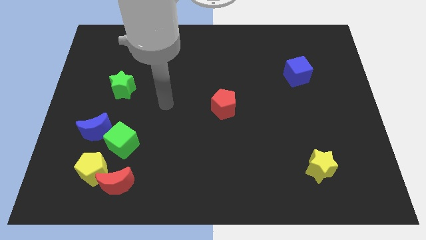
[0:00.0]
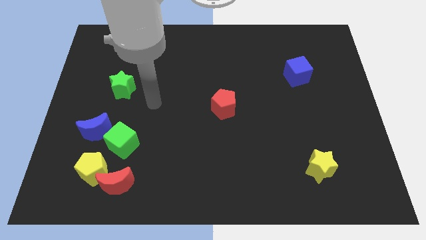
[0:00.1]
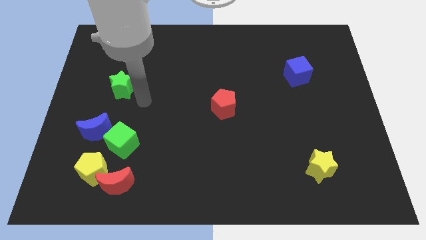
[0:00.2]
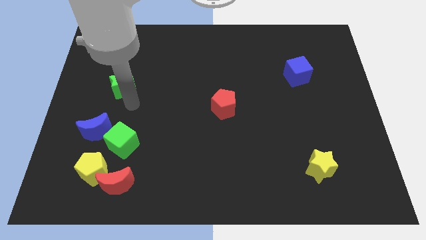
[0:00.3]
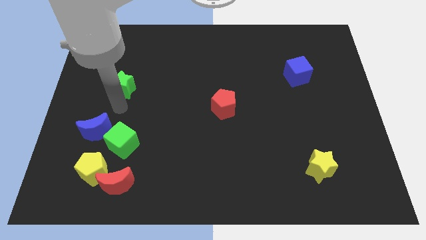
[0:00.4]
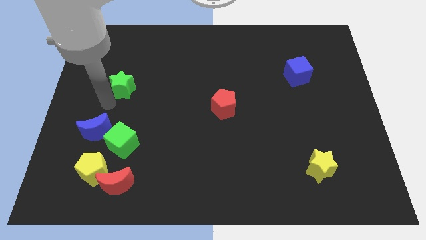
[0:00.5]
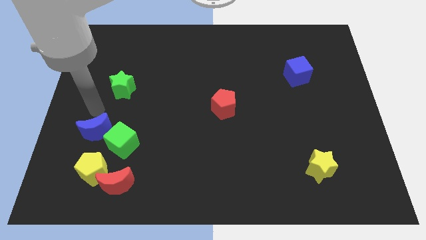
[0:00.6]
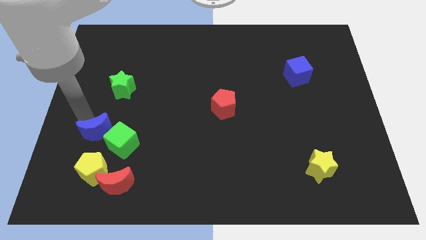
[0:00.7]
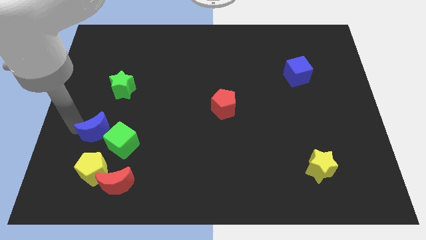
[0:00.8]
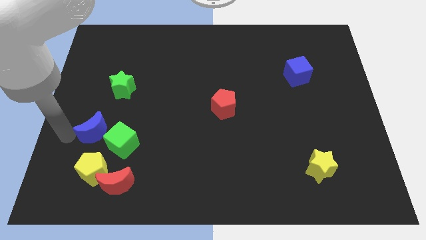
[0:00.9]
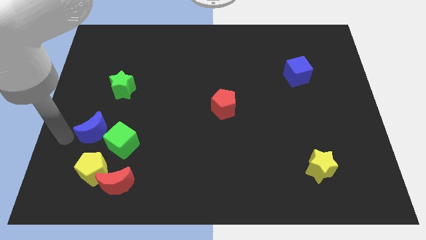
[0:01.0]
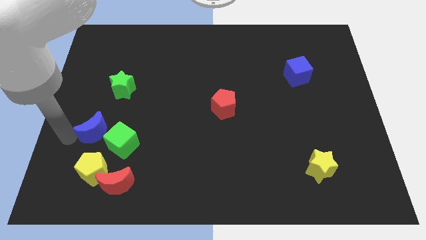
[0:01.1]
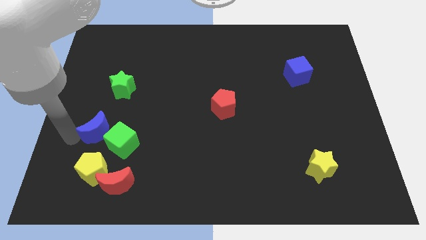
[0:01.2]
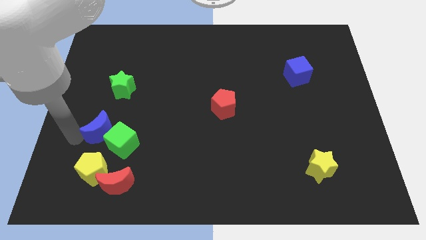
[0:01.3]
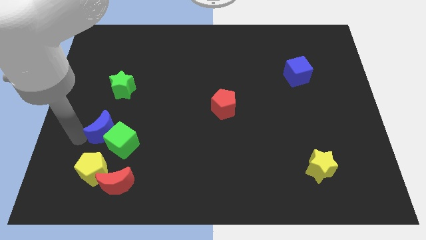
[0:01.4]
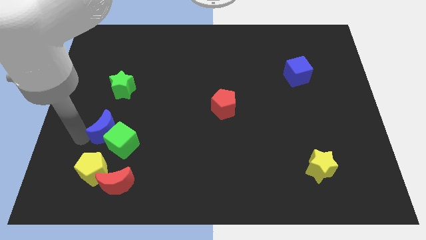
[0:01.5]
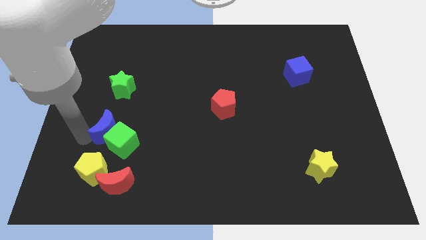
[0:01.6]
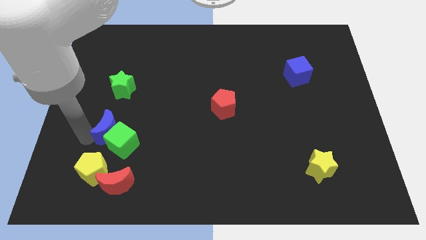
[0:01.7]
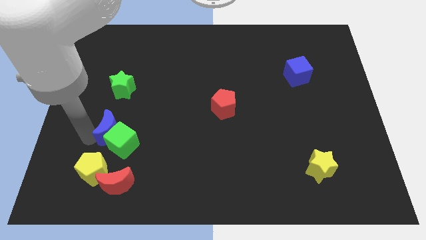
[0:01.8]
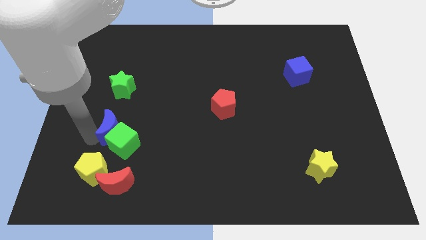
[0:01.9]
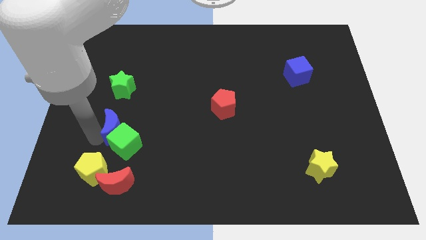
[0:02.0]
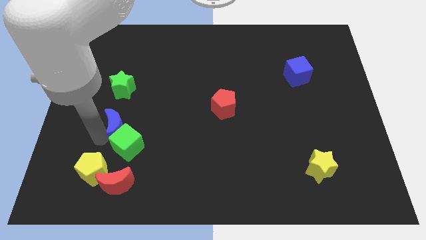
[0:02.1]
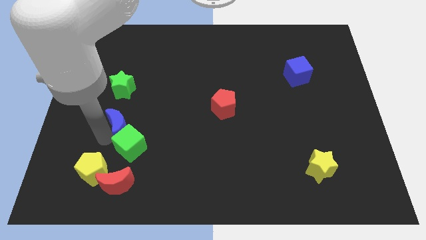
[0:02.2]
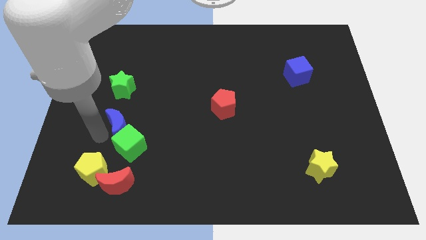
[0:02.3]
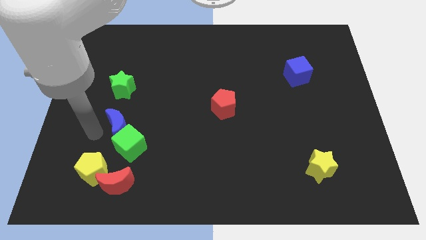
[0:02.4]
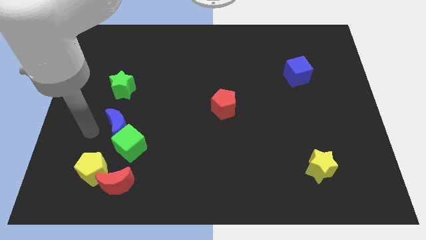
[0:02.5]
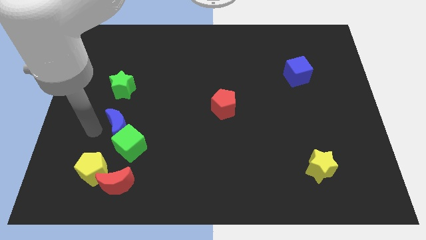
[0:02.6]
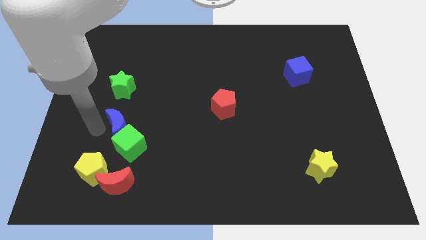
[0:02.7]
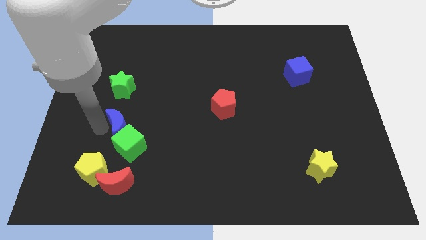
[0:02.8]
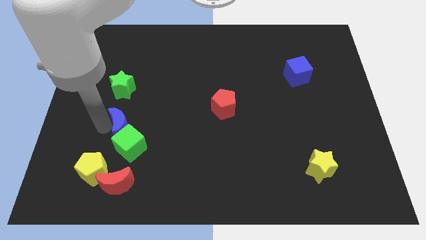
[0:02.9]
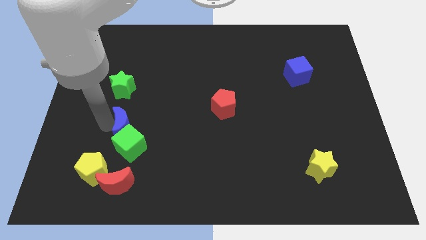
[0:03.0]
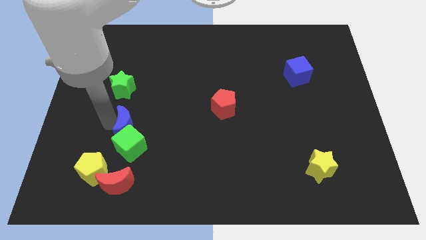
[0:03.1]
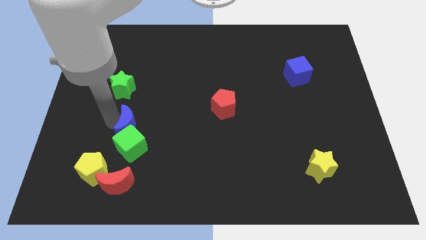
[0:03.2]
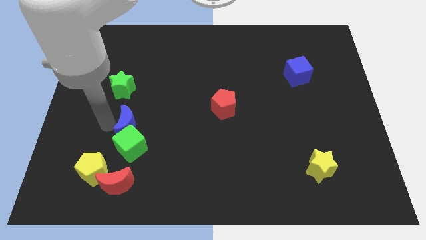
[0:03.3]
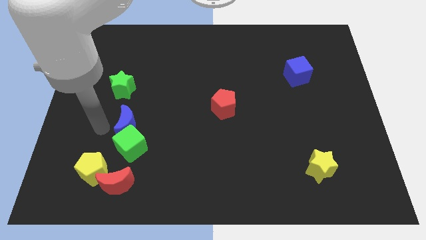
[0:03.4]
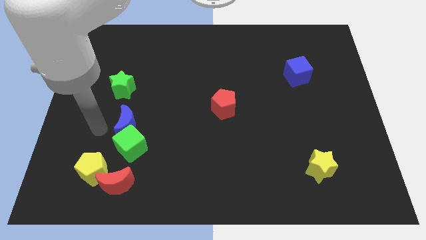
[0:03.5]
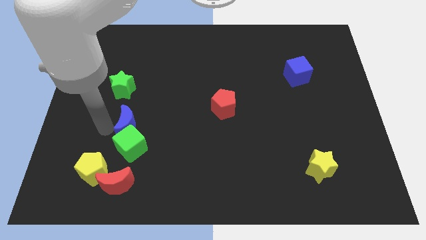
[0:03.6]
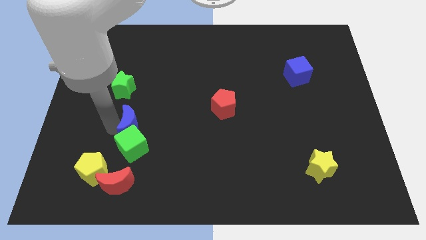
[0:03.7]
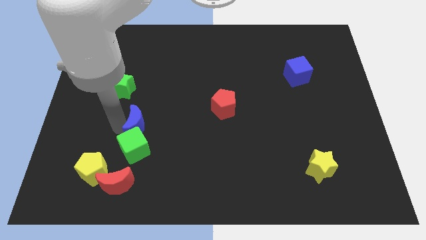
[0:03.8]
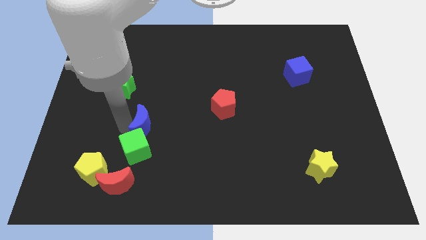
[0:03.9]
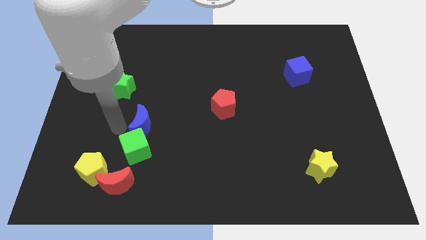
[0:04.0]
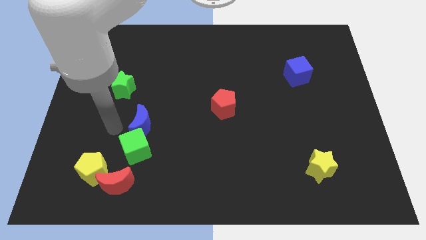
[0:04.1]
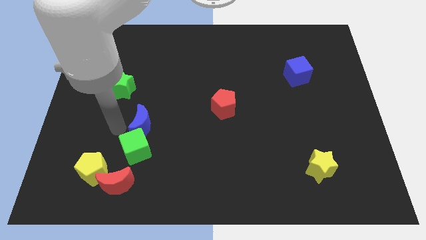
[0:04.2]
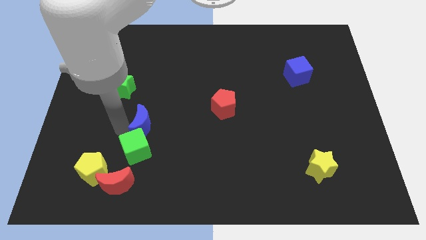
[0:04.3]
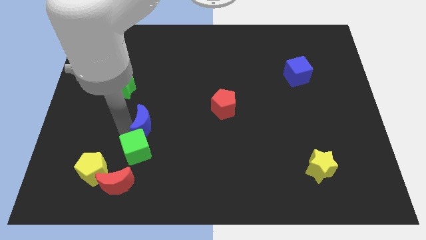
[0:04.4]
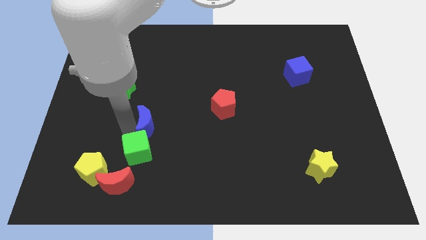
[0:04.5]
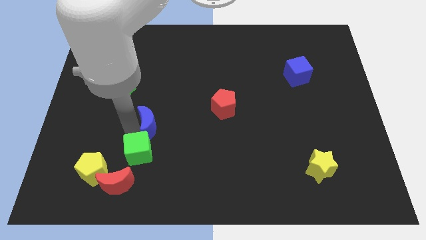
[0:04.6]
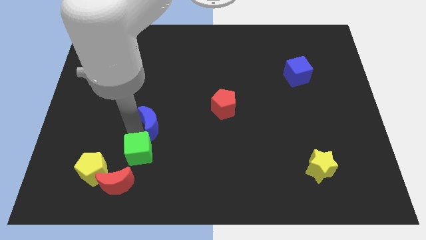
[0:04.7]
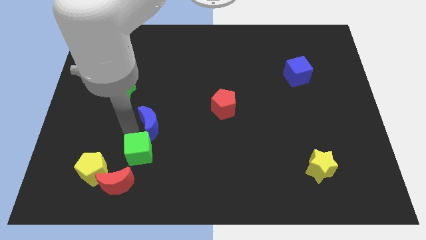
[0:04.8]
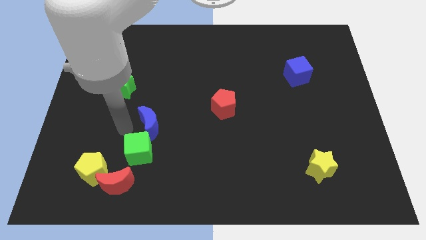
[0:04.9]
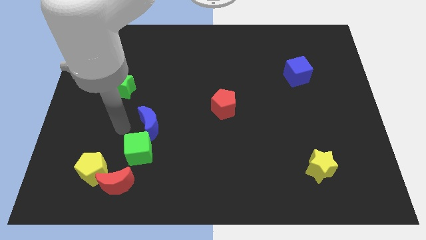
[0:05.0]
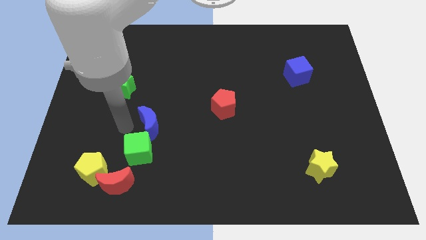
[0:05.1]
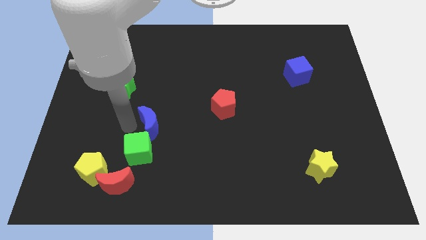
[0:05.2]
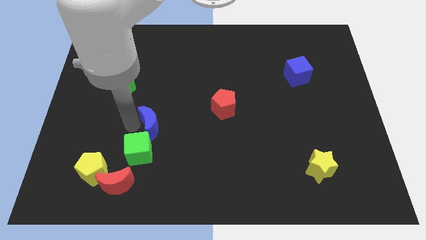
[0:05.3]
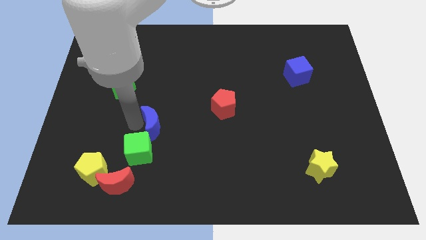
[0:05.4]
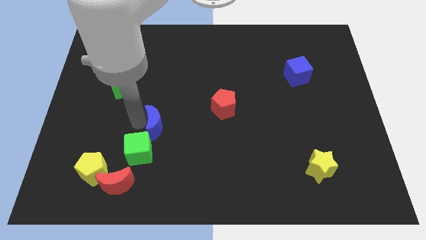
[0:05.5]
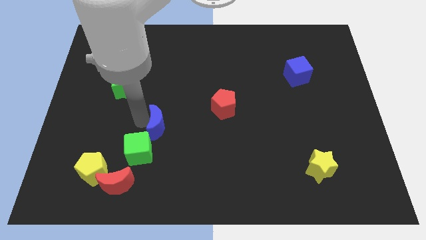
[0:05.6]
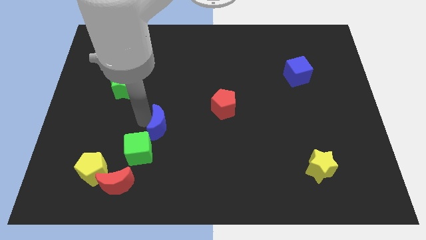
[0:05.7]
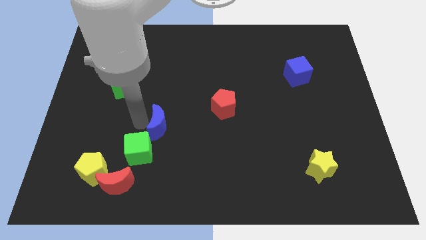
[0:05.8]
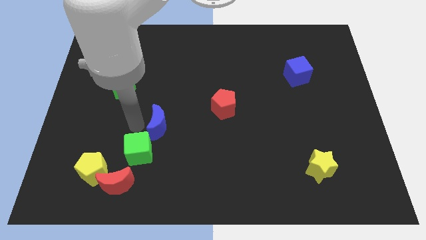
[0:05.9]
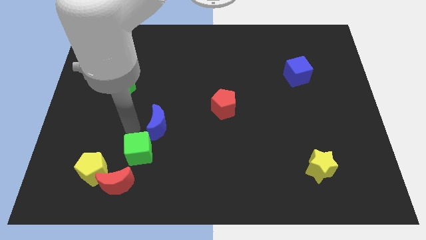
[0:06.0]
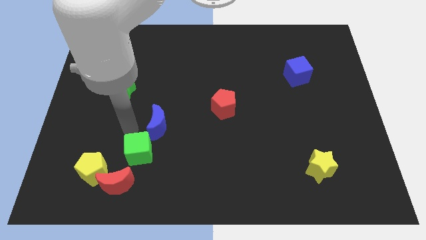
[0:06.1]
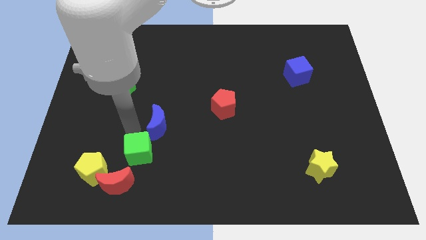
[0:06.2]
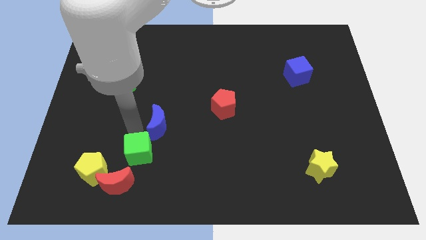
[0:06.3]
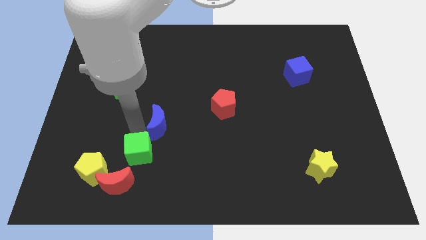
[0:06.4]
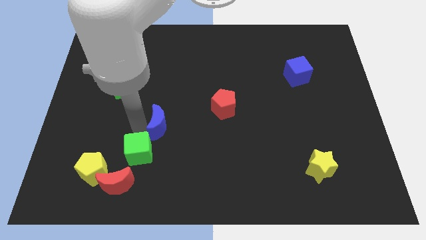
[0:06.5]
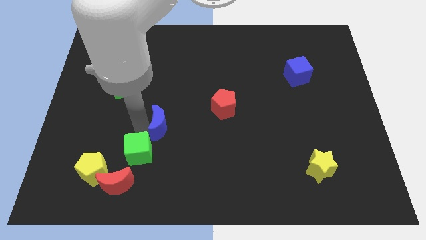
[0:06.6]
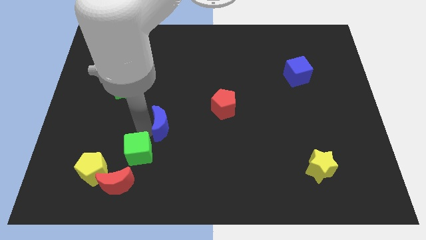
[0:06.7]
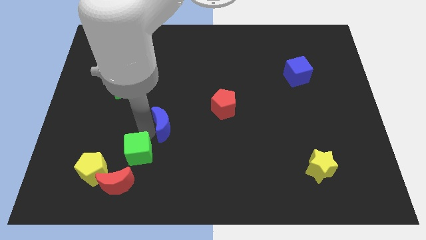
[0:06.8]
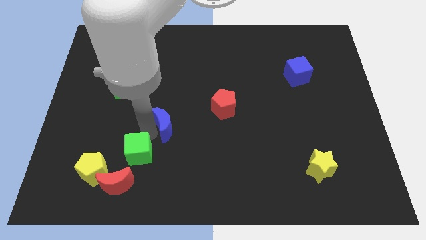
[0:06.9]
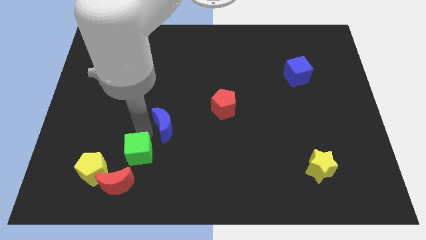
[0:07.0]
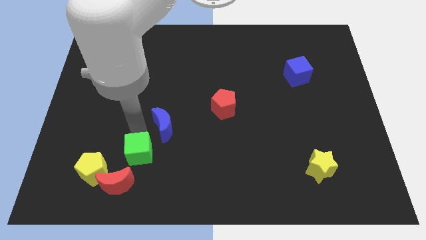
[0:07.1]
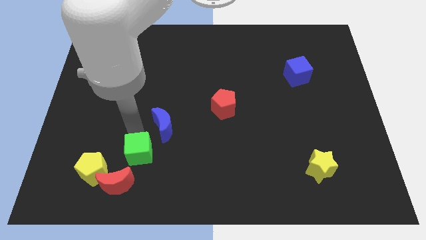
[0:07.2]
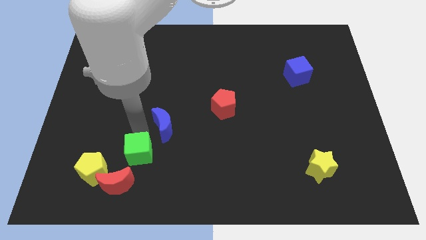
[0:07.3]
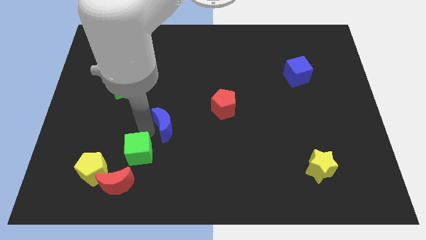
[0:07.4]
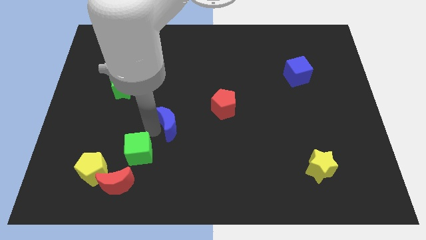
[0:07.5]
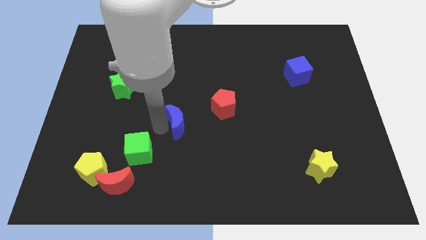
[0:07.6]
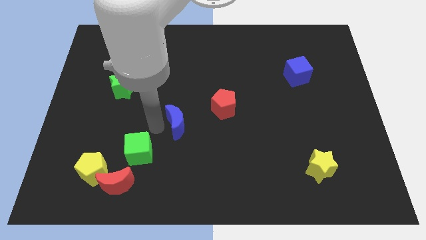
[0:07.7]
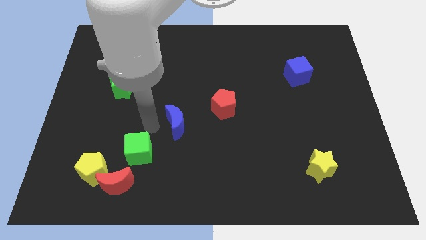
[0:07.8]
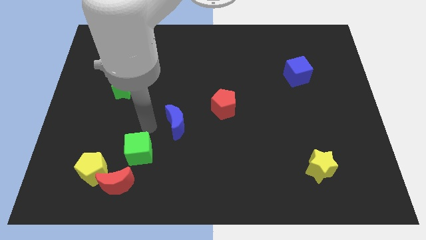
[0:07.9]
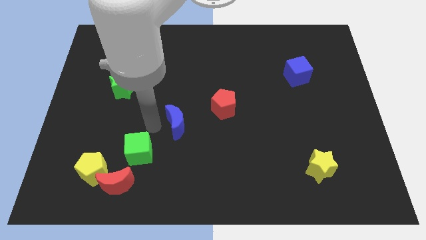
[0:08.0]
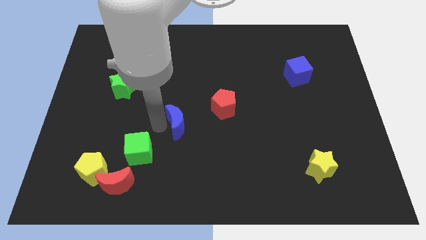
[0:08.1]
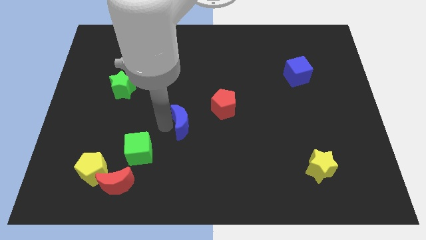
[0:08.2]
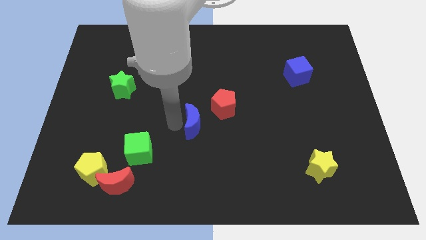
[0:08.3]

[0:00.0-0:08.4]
slide the blue moon right

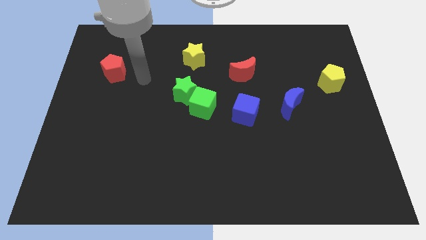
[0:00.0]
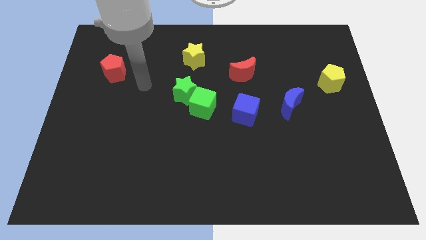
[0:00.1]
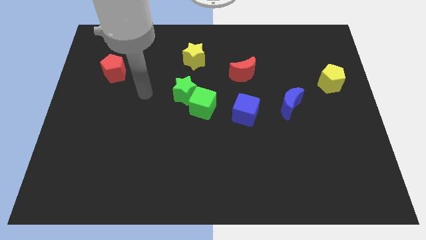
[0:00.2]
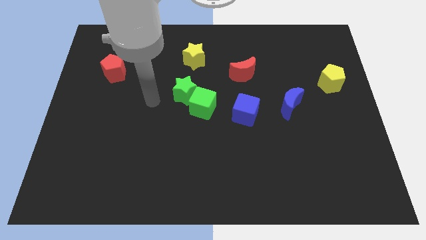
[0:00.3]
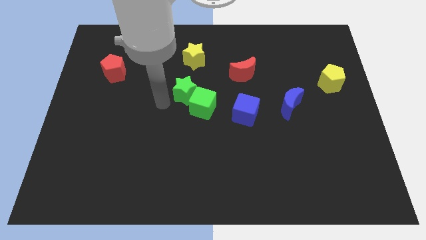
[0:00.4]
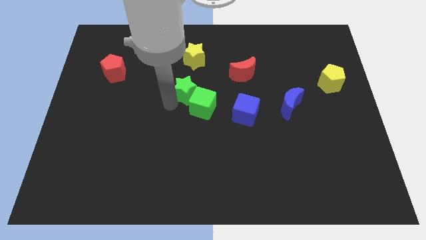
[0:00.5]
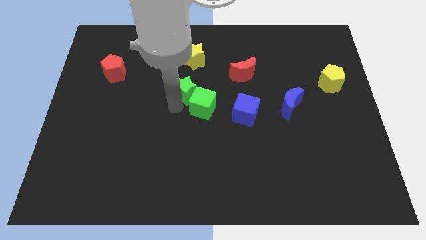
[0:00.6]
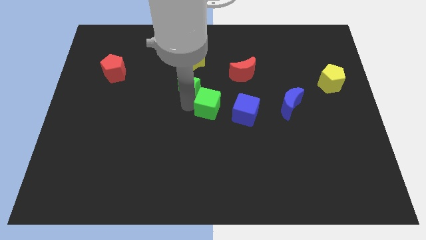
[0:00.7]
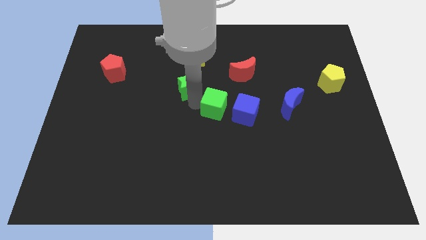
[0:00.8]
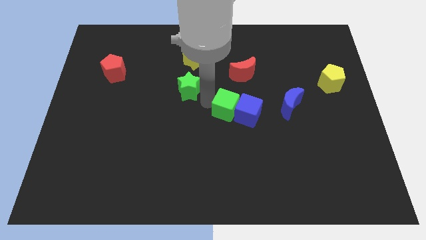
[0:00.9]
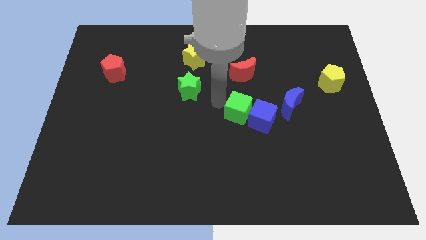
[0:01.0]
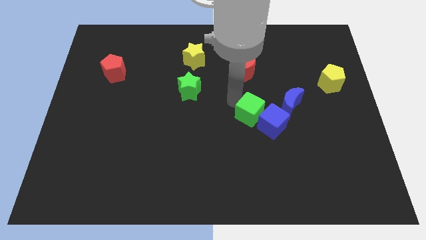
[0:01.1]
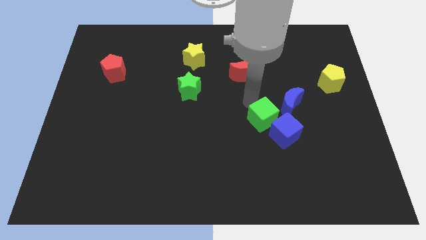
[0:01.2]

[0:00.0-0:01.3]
push the blue cube slightly downwards and to the right diagonally
